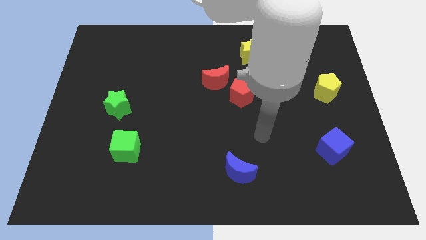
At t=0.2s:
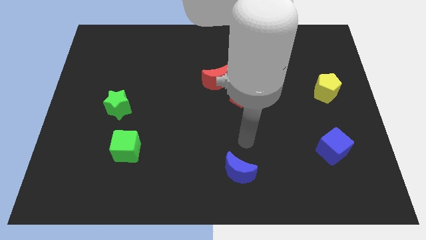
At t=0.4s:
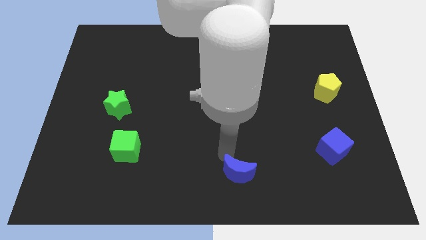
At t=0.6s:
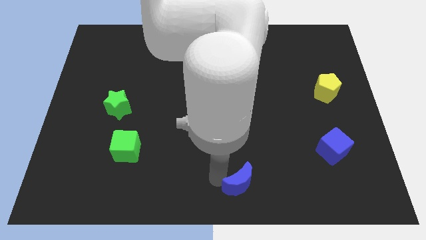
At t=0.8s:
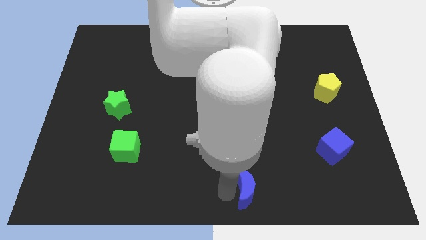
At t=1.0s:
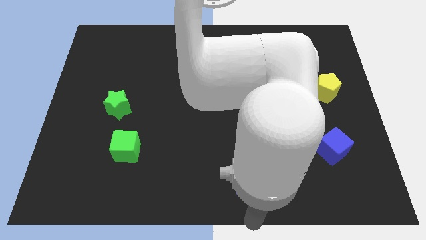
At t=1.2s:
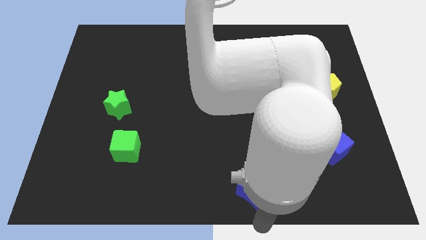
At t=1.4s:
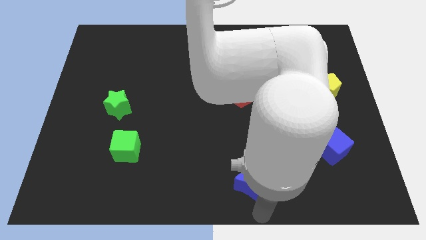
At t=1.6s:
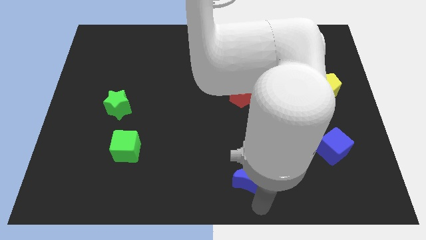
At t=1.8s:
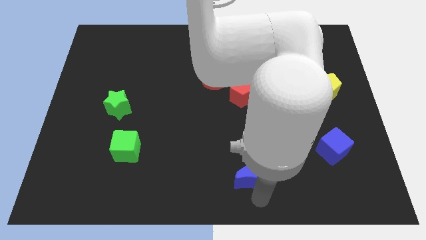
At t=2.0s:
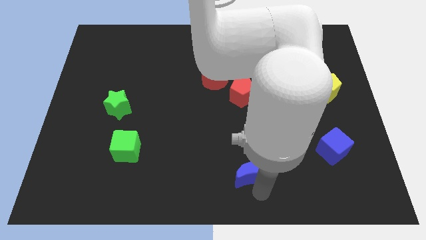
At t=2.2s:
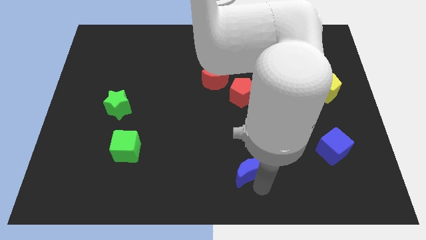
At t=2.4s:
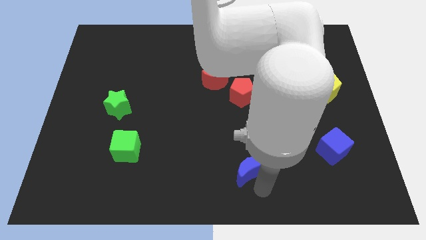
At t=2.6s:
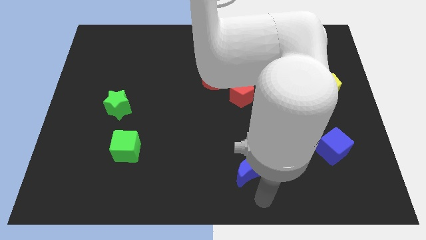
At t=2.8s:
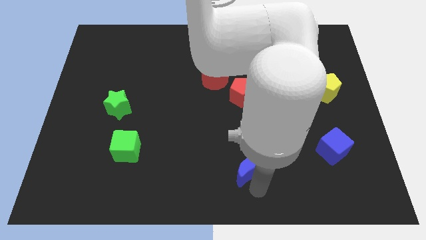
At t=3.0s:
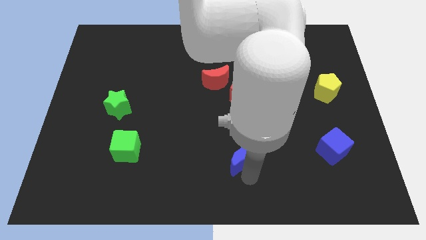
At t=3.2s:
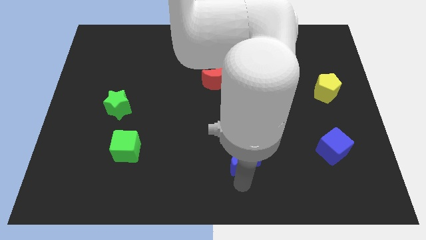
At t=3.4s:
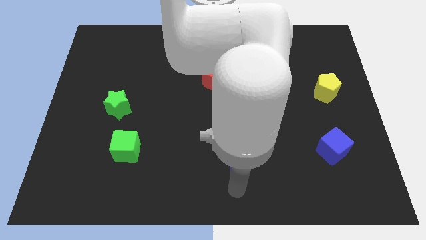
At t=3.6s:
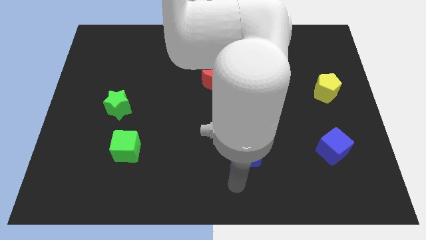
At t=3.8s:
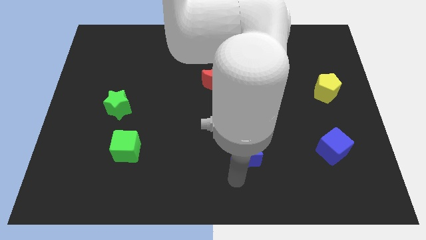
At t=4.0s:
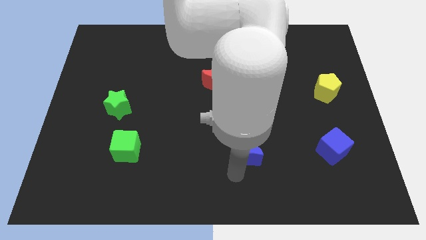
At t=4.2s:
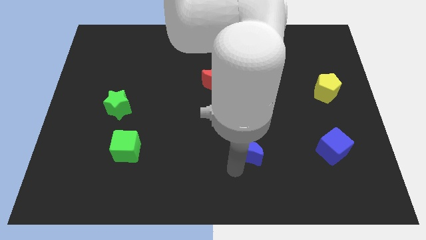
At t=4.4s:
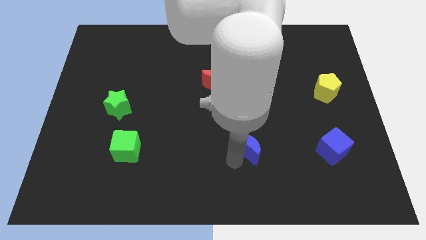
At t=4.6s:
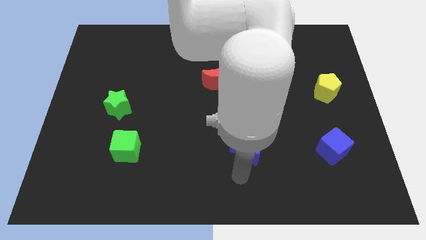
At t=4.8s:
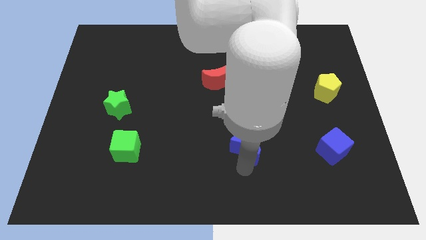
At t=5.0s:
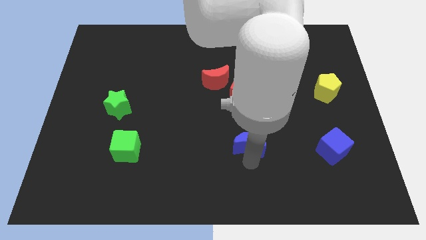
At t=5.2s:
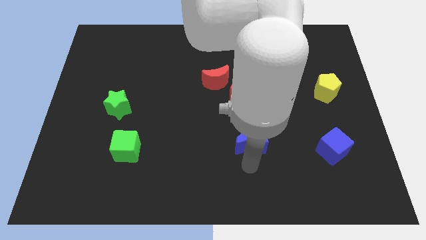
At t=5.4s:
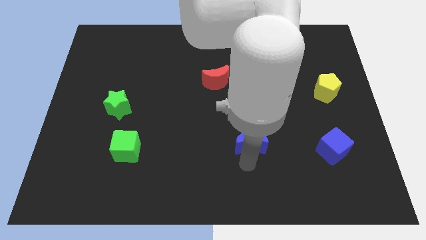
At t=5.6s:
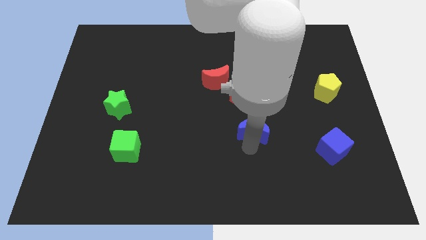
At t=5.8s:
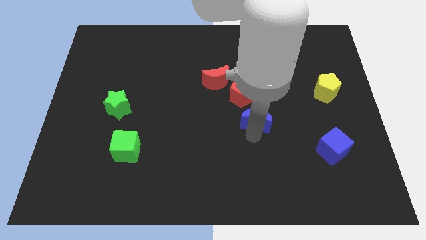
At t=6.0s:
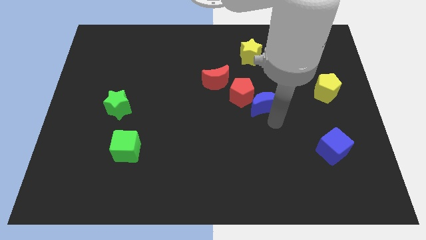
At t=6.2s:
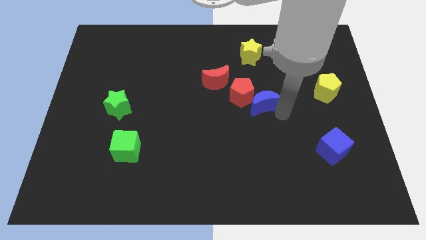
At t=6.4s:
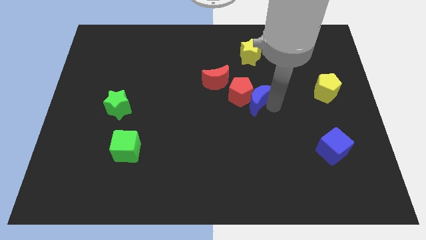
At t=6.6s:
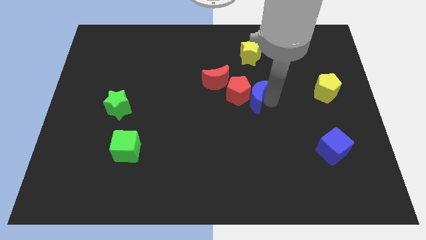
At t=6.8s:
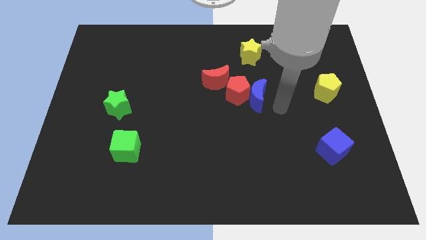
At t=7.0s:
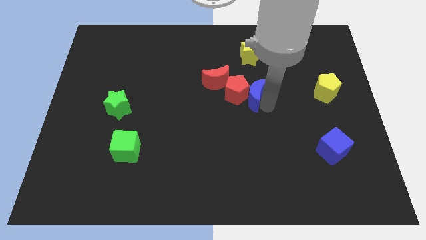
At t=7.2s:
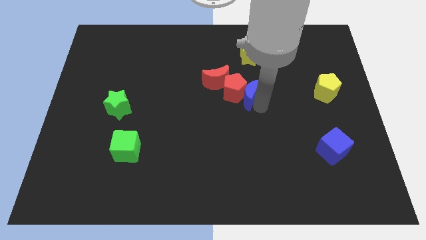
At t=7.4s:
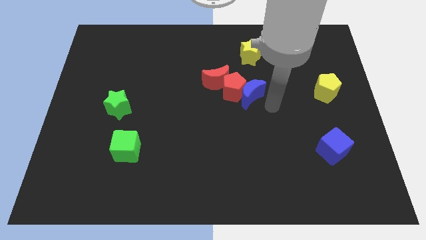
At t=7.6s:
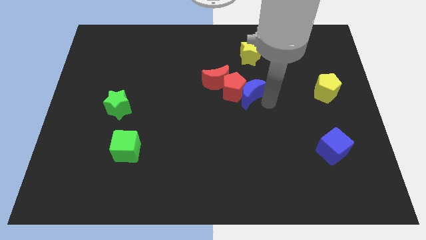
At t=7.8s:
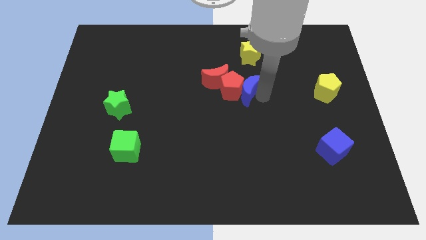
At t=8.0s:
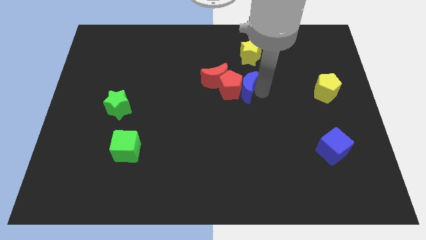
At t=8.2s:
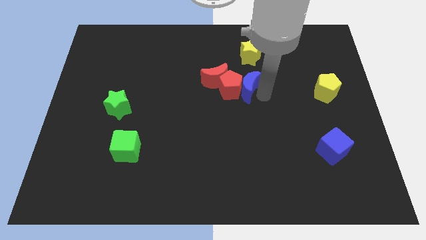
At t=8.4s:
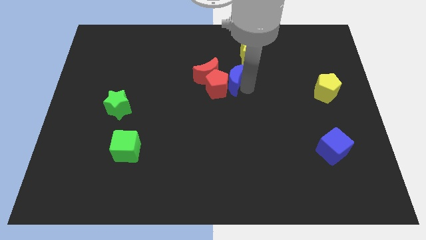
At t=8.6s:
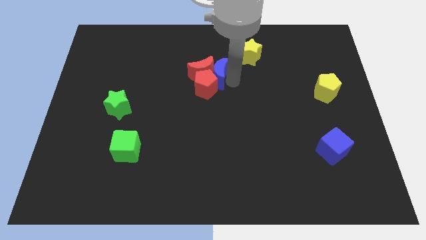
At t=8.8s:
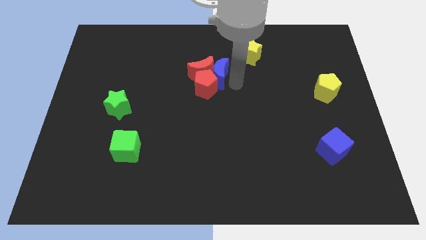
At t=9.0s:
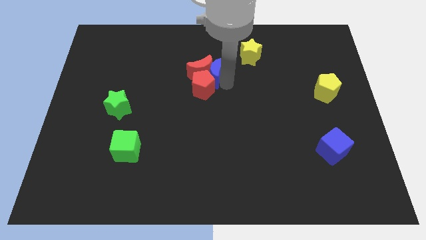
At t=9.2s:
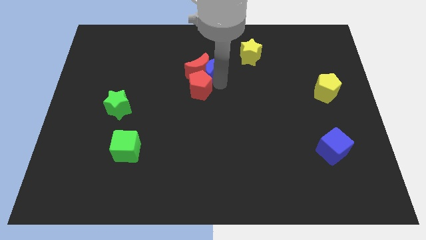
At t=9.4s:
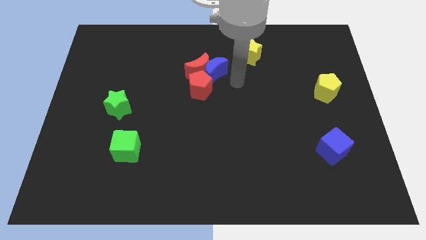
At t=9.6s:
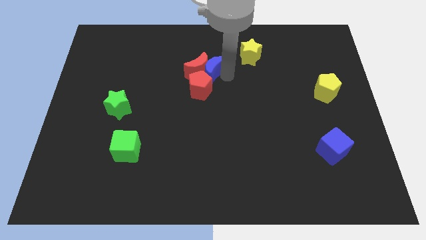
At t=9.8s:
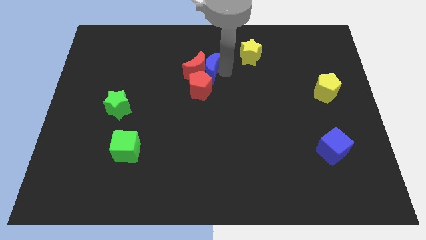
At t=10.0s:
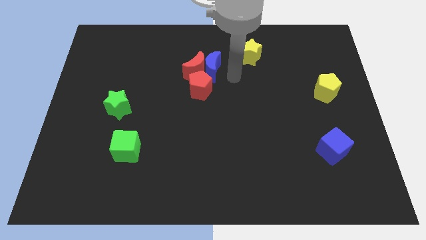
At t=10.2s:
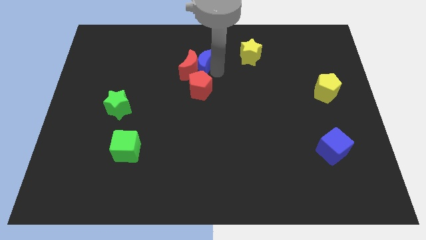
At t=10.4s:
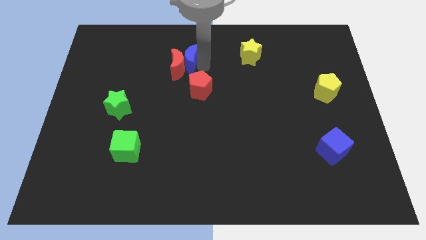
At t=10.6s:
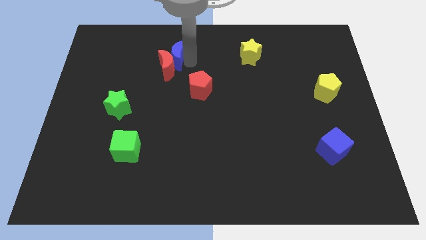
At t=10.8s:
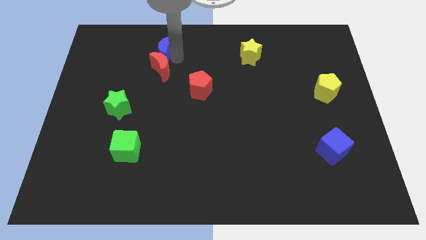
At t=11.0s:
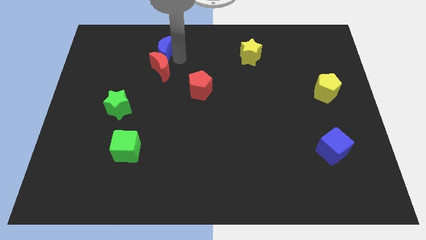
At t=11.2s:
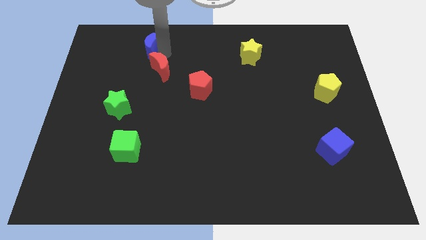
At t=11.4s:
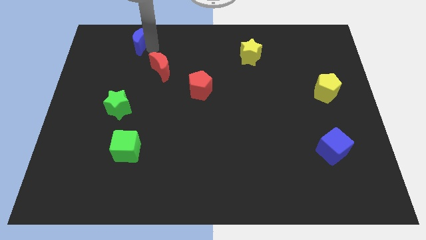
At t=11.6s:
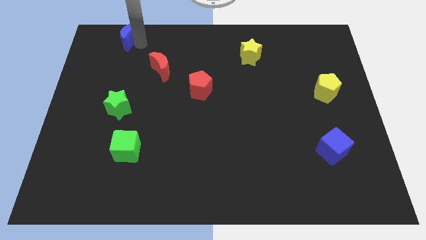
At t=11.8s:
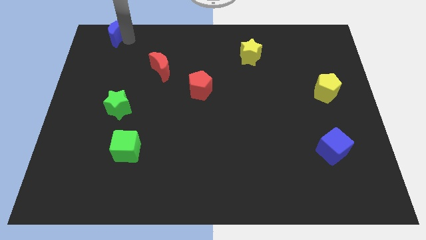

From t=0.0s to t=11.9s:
slide the blue moon to the top left of the board
